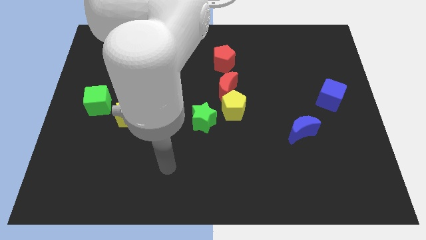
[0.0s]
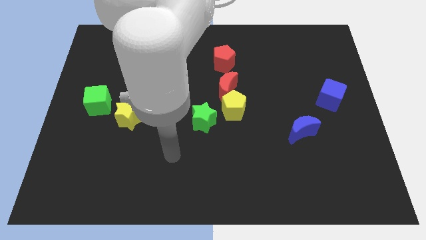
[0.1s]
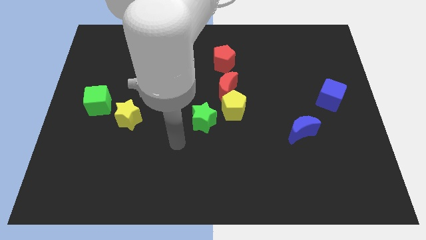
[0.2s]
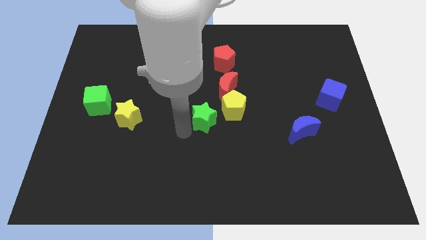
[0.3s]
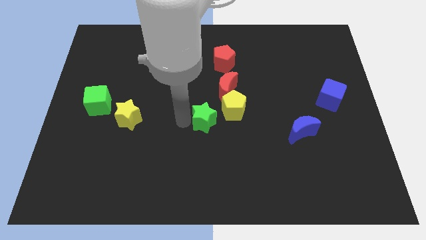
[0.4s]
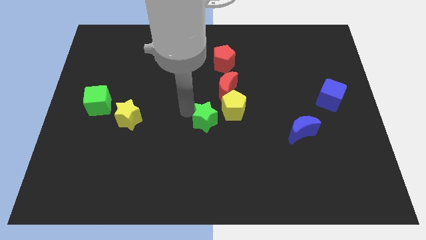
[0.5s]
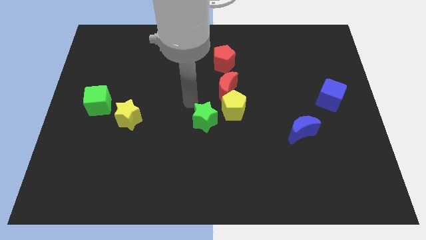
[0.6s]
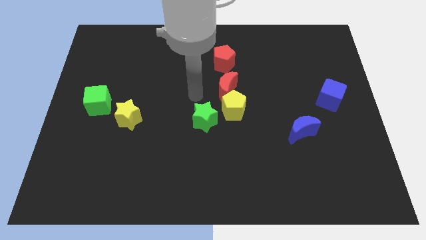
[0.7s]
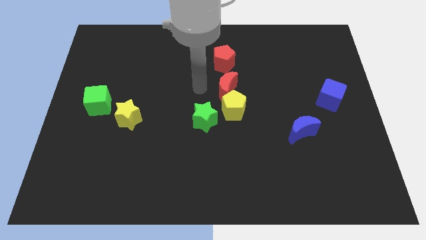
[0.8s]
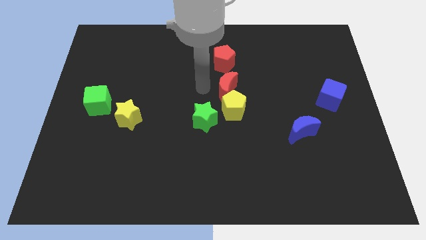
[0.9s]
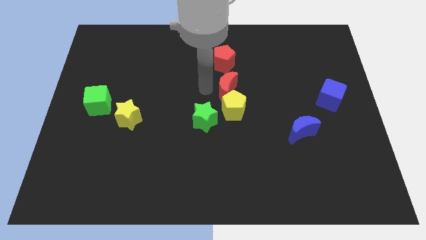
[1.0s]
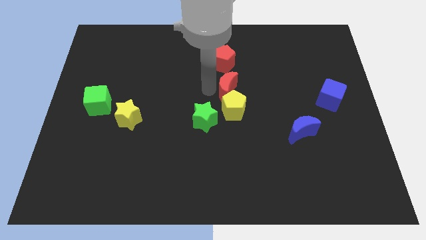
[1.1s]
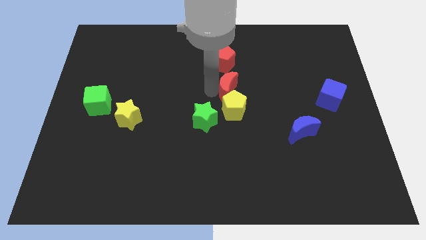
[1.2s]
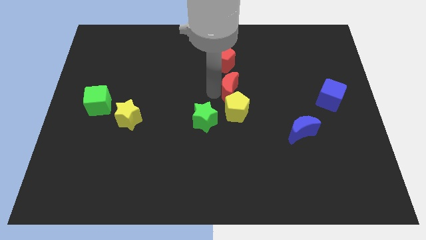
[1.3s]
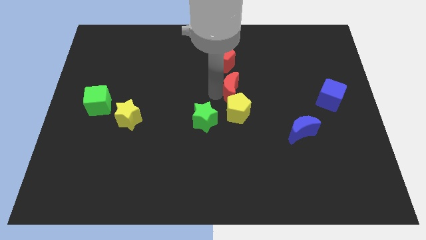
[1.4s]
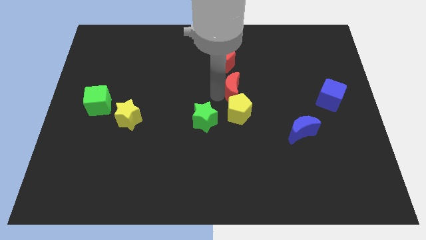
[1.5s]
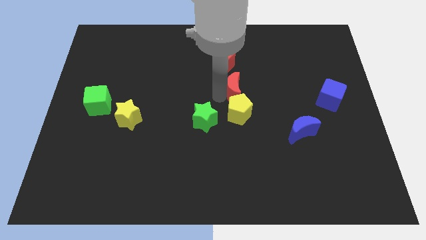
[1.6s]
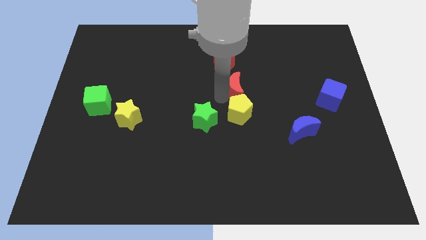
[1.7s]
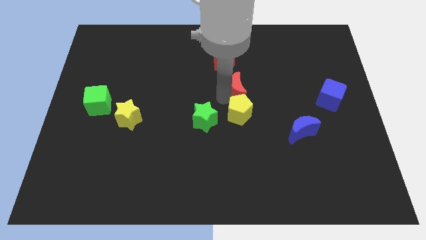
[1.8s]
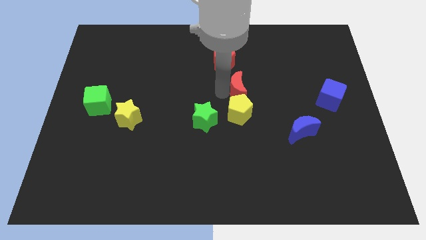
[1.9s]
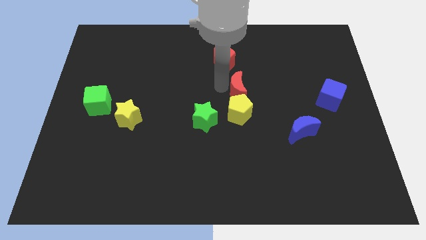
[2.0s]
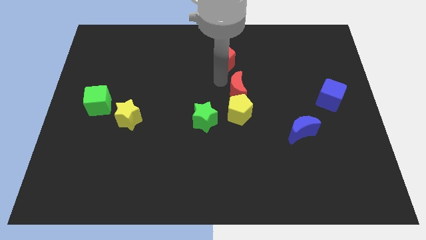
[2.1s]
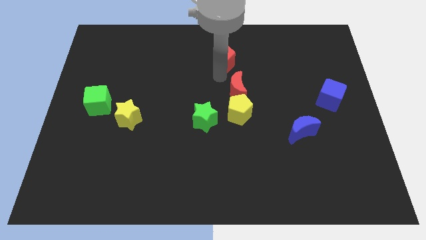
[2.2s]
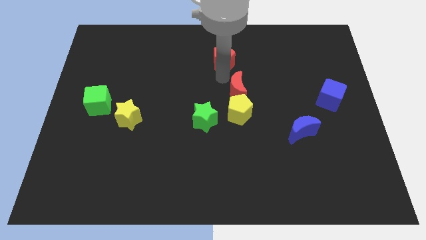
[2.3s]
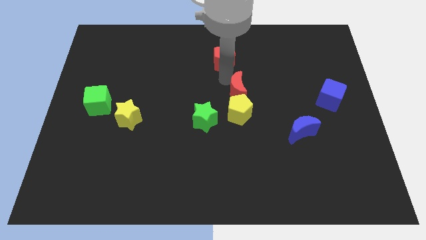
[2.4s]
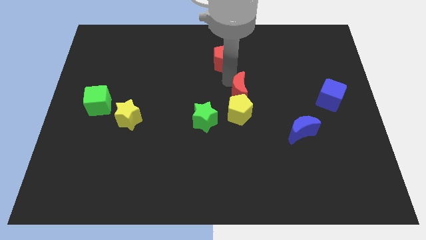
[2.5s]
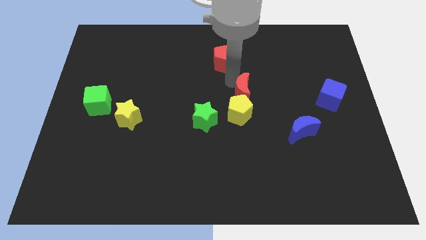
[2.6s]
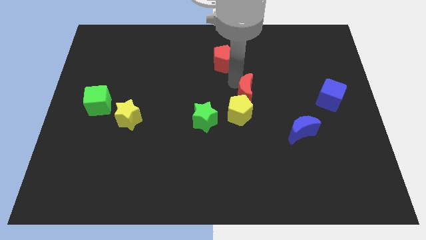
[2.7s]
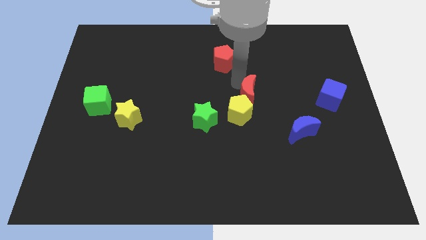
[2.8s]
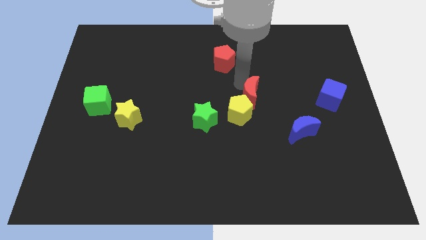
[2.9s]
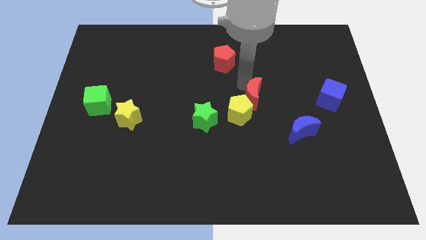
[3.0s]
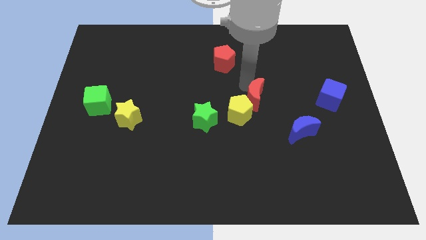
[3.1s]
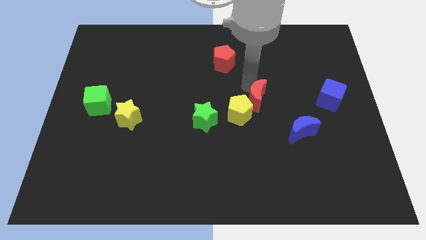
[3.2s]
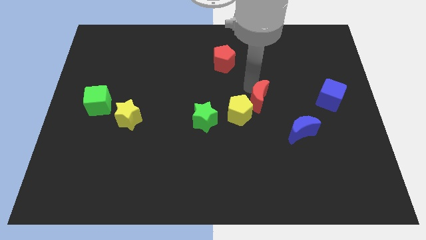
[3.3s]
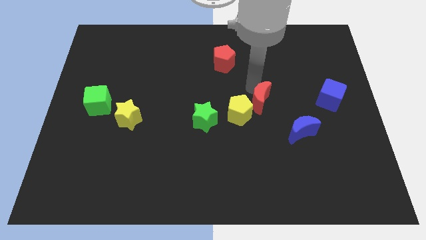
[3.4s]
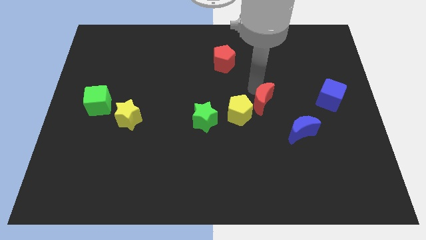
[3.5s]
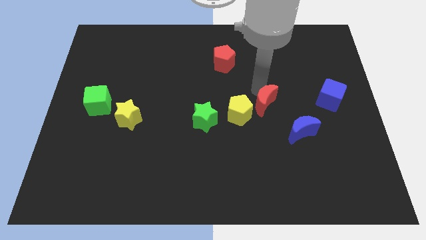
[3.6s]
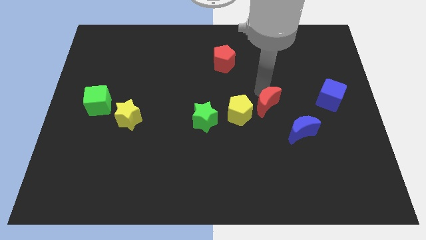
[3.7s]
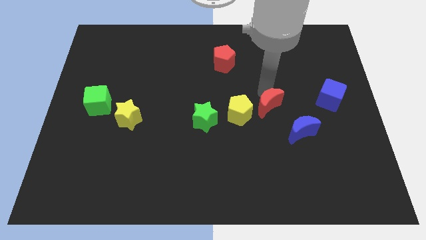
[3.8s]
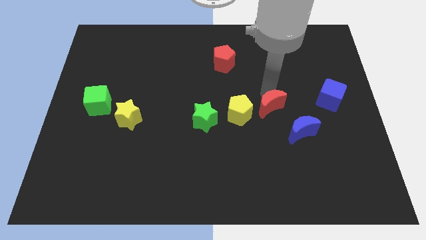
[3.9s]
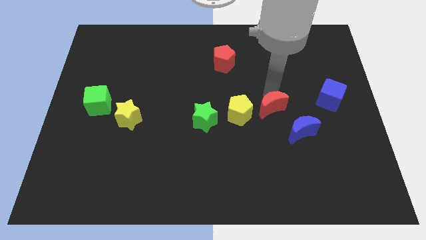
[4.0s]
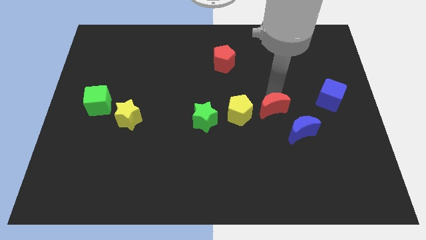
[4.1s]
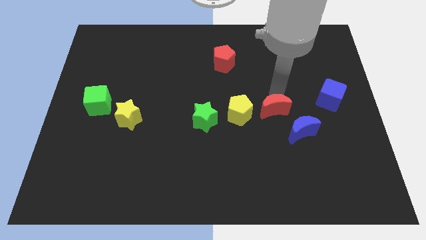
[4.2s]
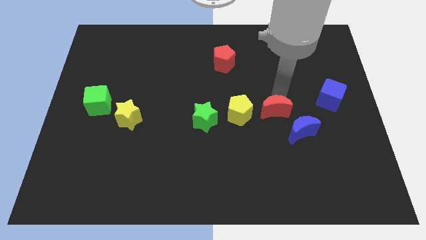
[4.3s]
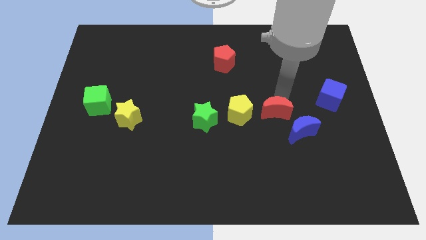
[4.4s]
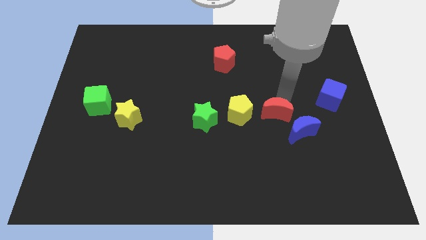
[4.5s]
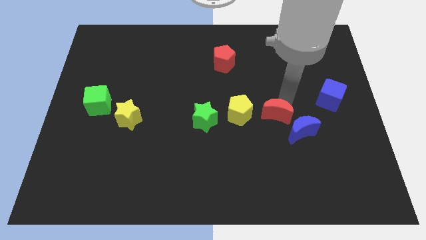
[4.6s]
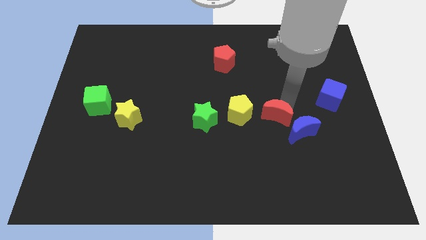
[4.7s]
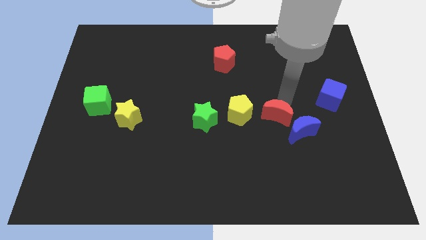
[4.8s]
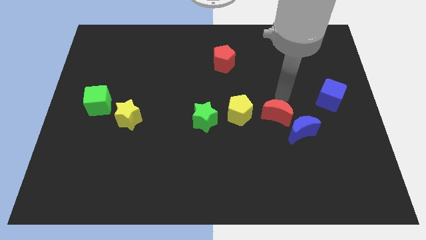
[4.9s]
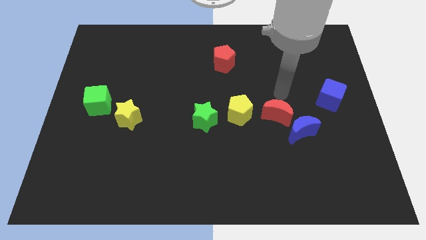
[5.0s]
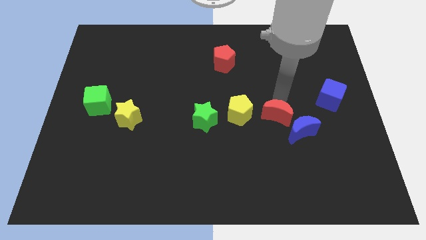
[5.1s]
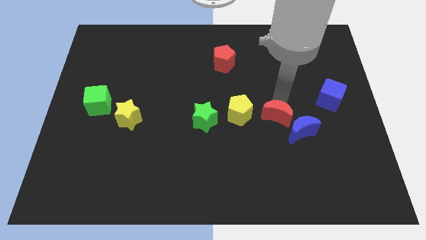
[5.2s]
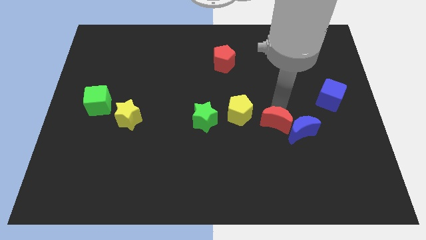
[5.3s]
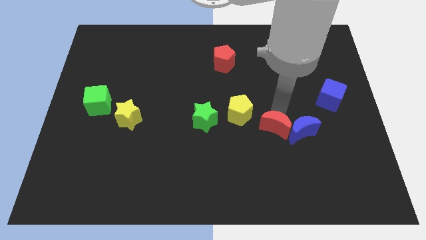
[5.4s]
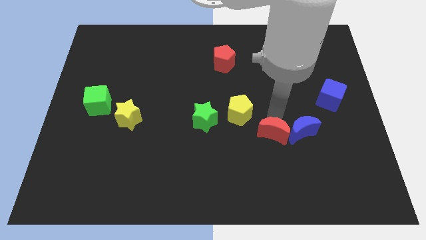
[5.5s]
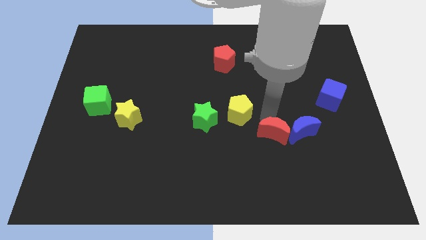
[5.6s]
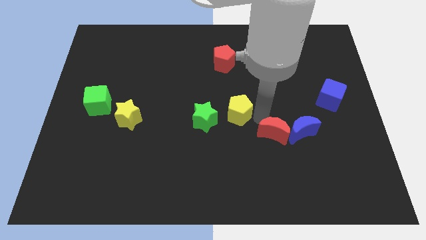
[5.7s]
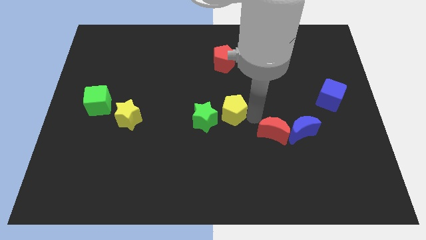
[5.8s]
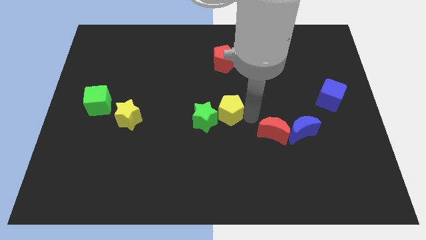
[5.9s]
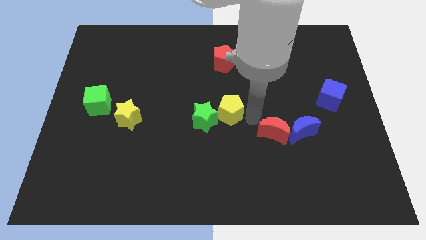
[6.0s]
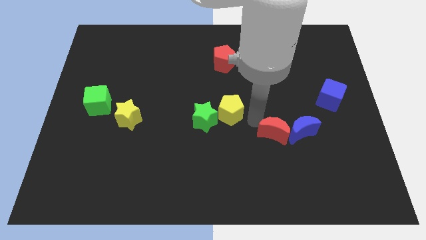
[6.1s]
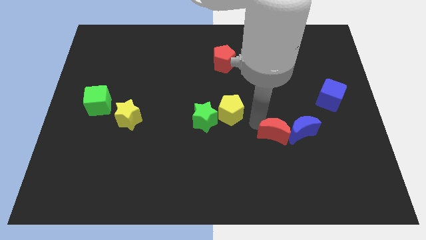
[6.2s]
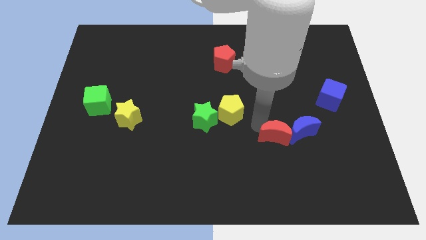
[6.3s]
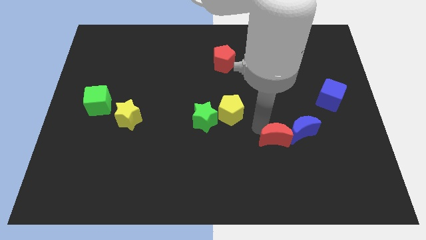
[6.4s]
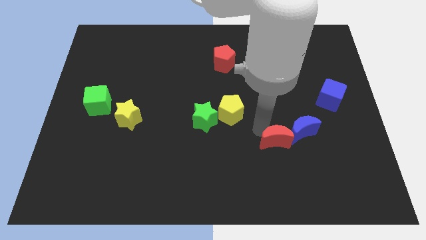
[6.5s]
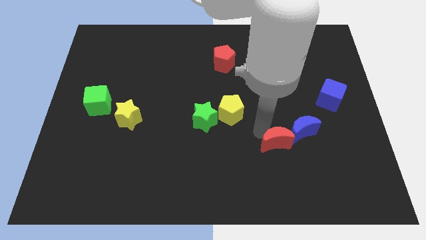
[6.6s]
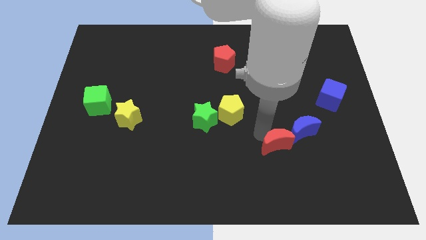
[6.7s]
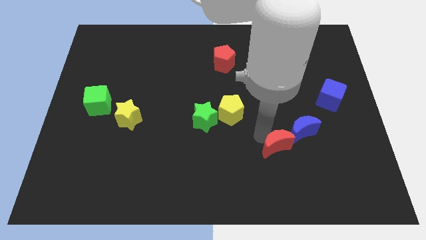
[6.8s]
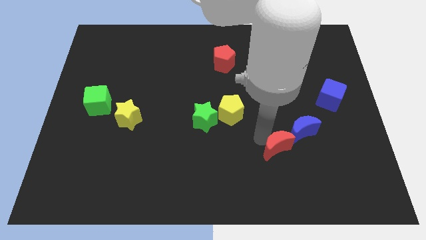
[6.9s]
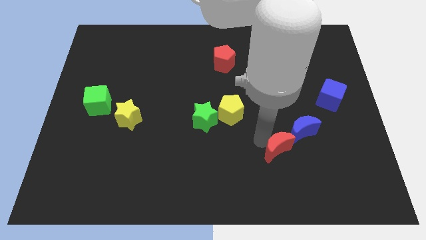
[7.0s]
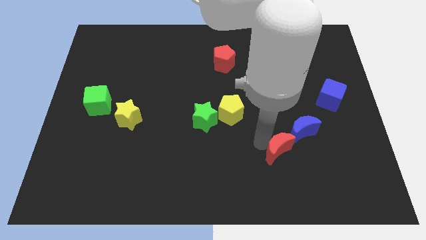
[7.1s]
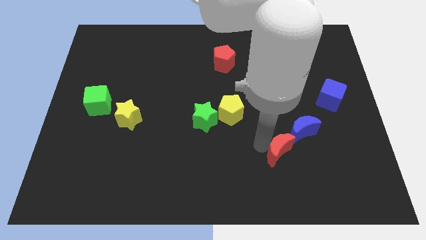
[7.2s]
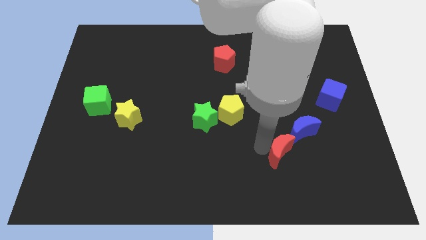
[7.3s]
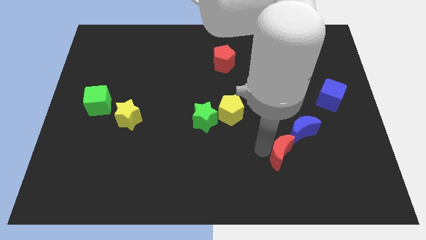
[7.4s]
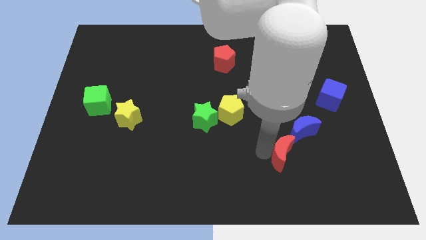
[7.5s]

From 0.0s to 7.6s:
move the red moon diagonally down and to the right

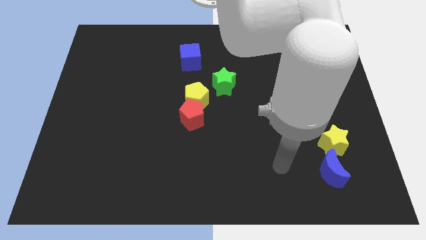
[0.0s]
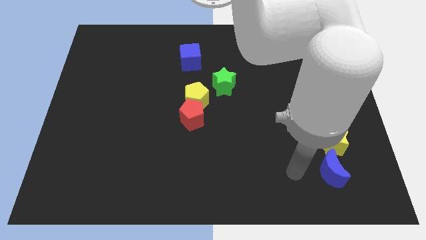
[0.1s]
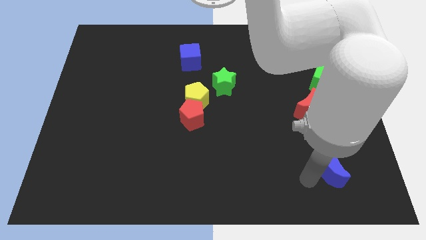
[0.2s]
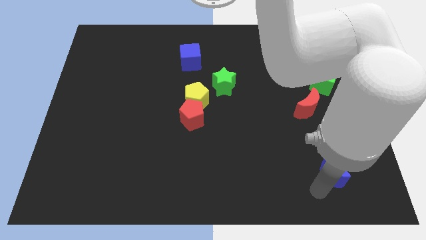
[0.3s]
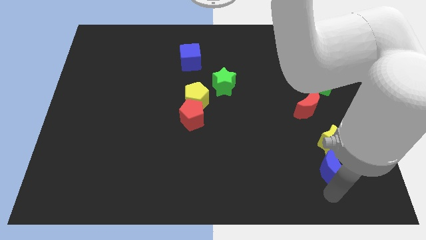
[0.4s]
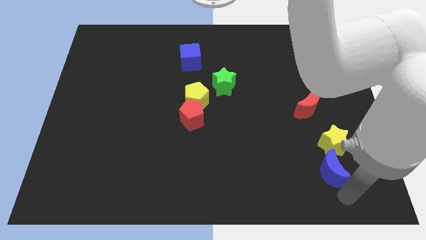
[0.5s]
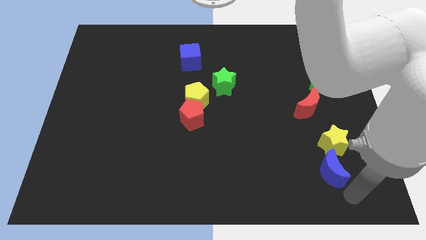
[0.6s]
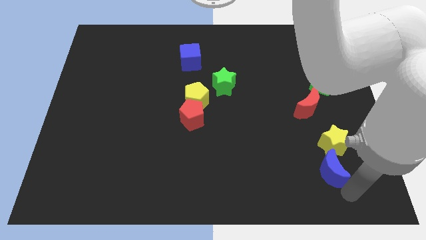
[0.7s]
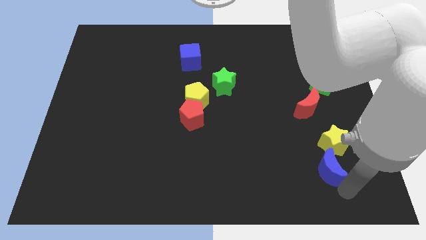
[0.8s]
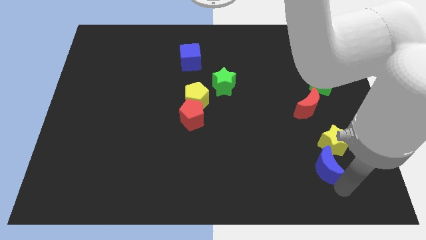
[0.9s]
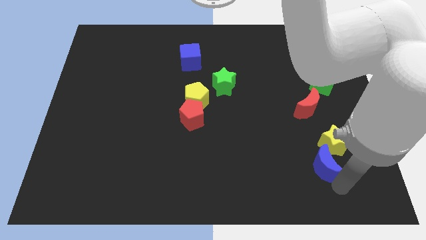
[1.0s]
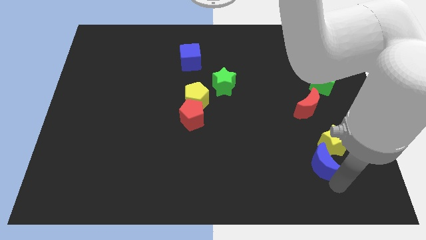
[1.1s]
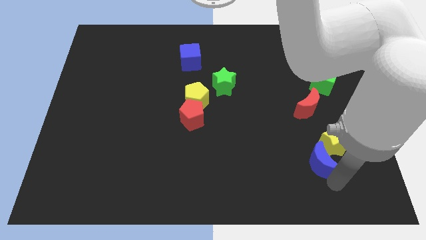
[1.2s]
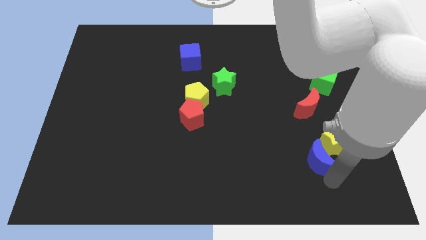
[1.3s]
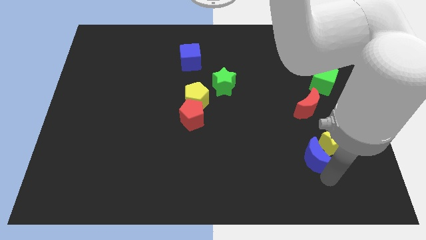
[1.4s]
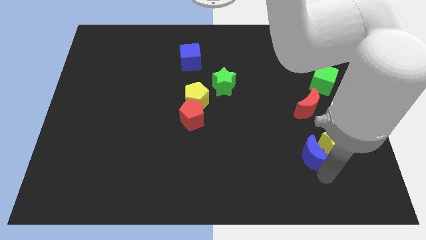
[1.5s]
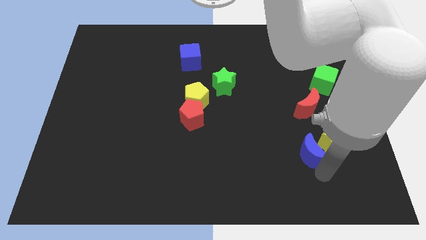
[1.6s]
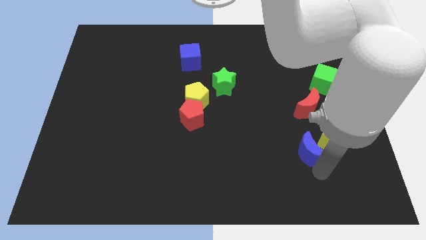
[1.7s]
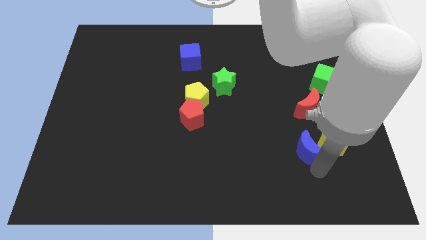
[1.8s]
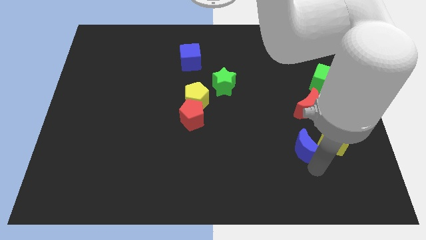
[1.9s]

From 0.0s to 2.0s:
slightly move the blue moon upwards and then to the left
